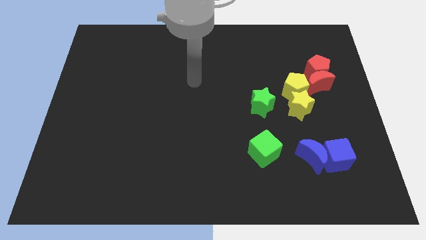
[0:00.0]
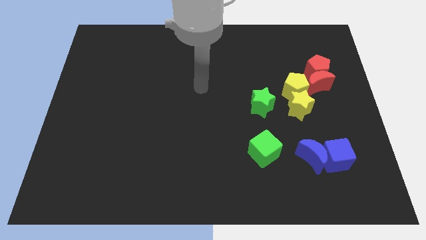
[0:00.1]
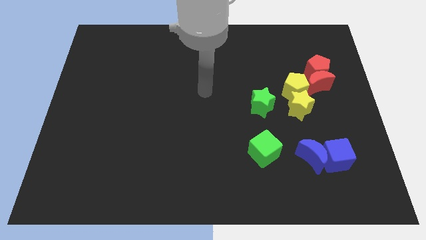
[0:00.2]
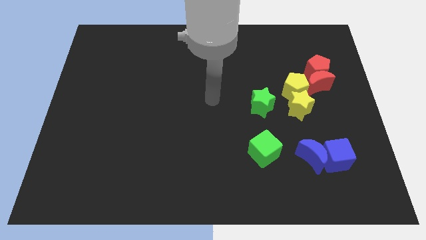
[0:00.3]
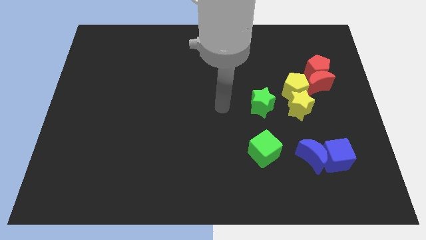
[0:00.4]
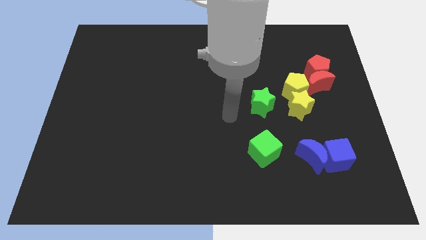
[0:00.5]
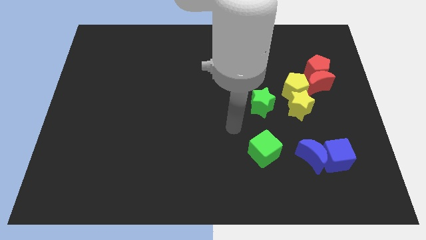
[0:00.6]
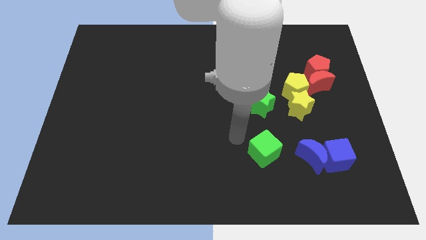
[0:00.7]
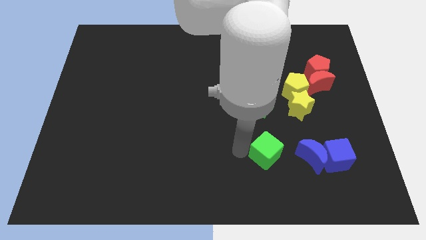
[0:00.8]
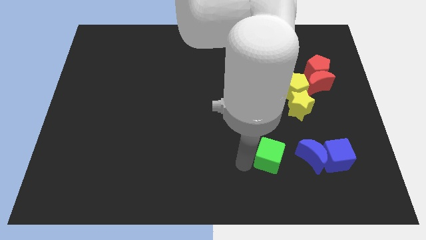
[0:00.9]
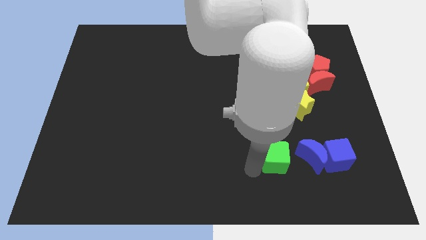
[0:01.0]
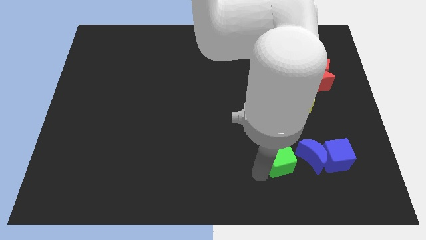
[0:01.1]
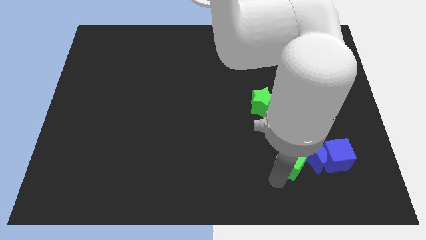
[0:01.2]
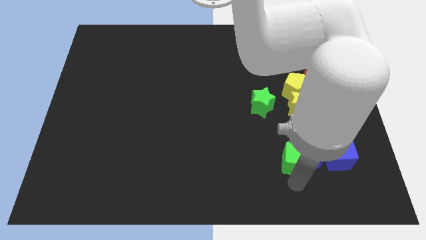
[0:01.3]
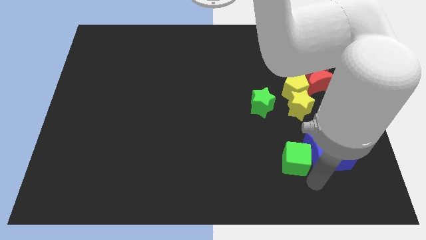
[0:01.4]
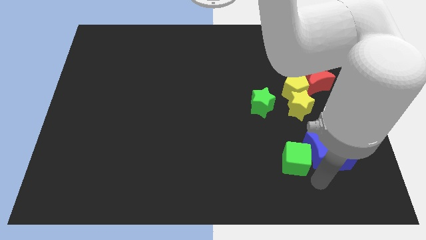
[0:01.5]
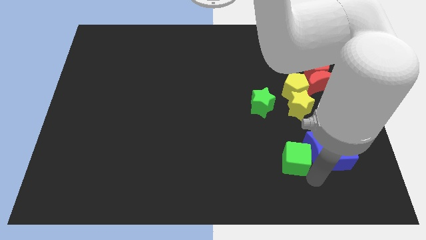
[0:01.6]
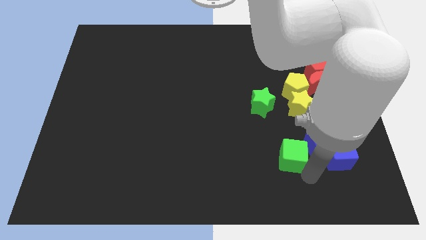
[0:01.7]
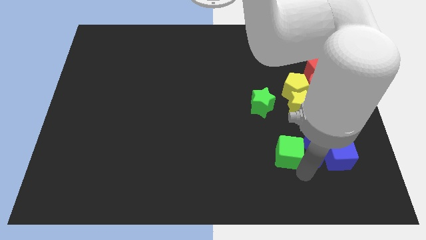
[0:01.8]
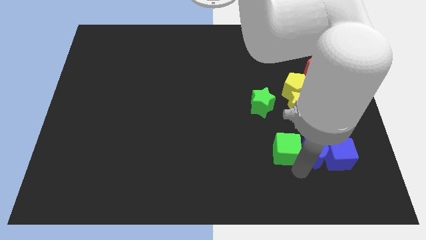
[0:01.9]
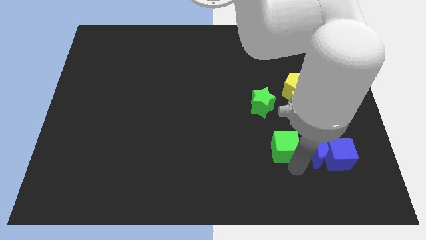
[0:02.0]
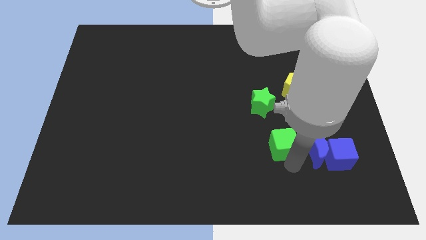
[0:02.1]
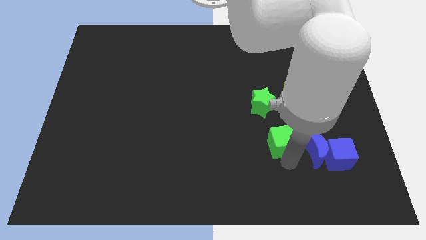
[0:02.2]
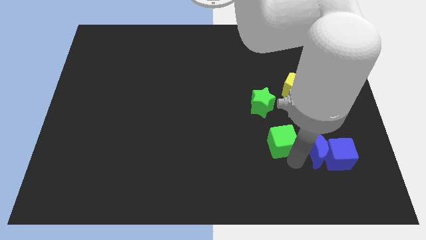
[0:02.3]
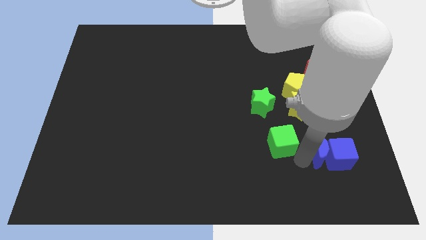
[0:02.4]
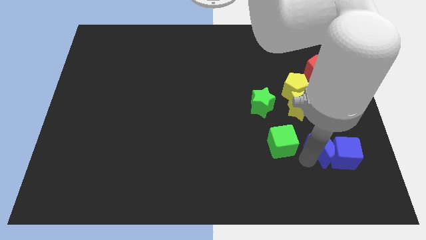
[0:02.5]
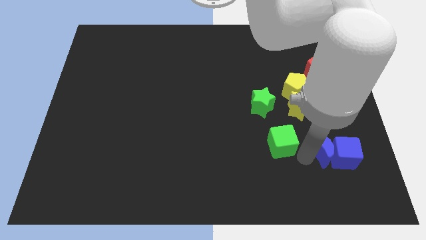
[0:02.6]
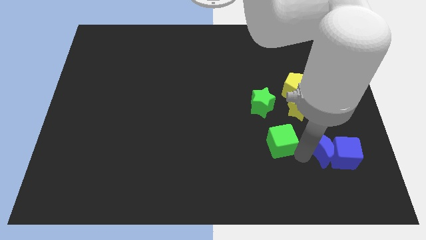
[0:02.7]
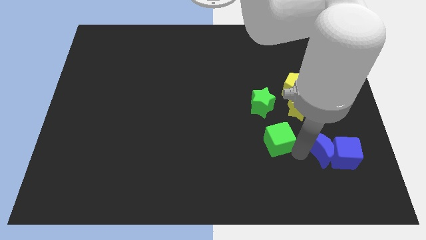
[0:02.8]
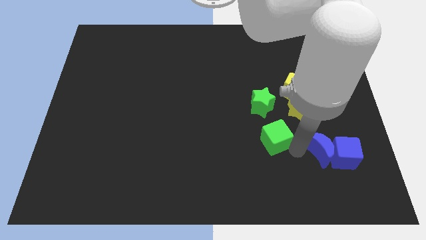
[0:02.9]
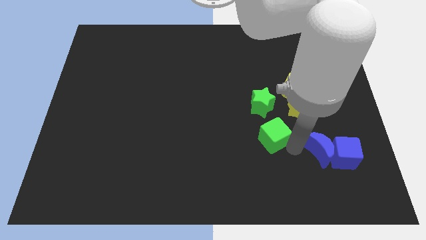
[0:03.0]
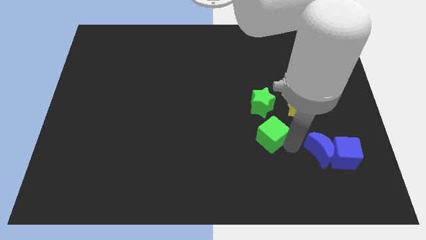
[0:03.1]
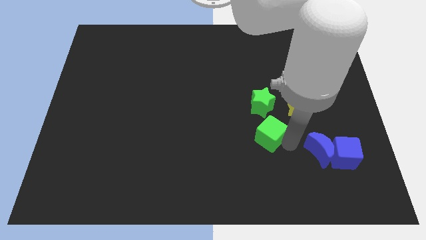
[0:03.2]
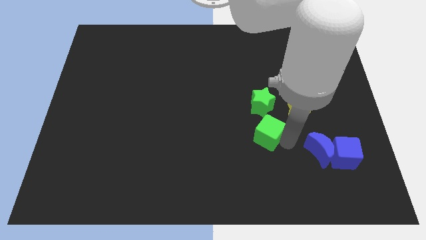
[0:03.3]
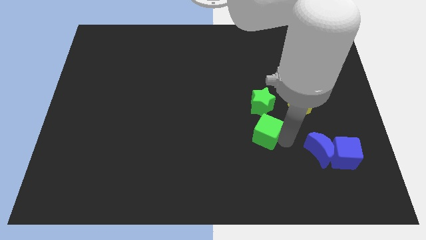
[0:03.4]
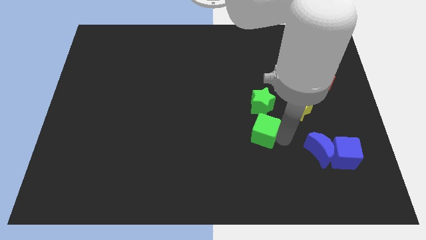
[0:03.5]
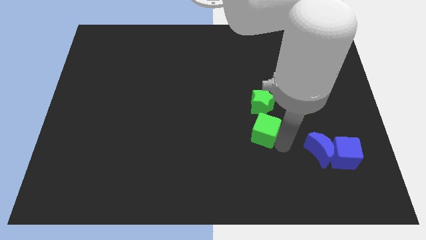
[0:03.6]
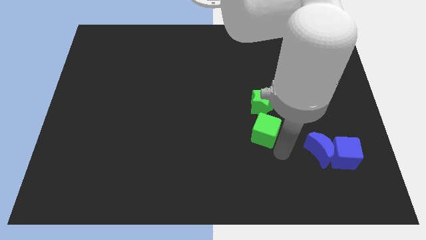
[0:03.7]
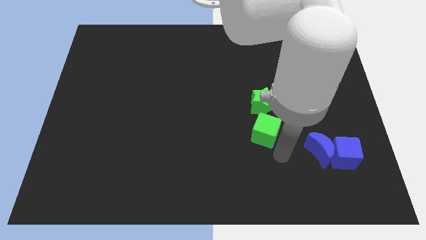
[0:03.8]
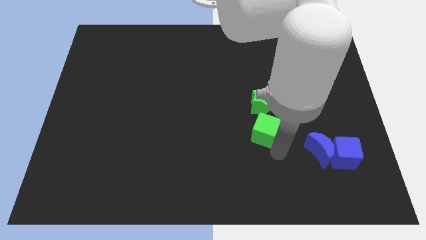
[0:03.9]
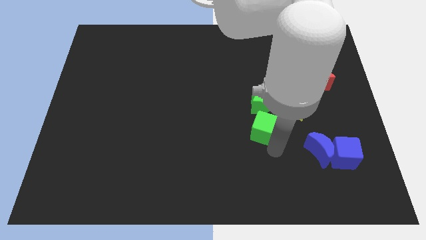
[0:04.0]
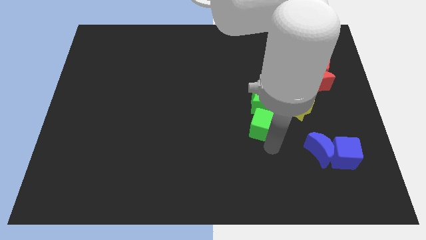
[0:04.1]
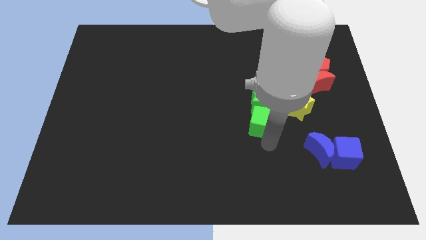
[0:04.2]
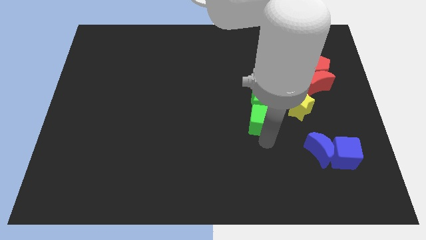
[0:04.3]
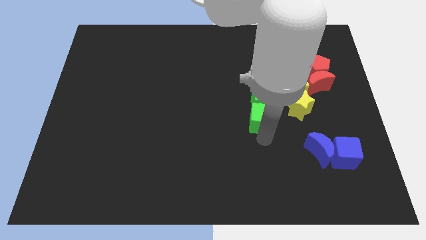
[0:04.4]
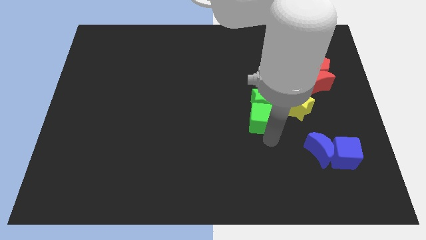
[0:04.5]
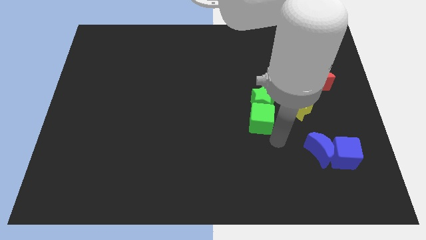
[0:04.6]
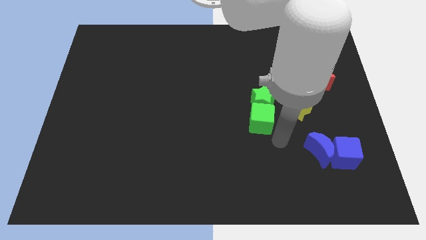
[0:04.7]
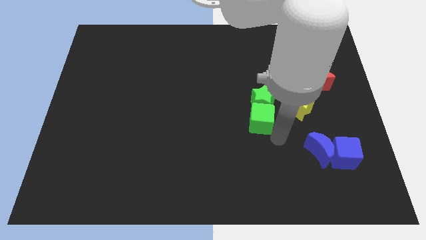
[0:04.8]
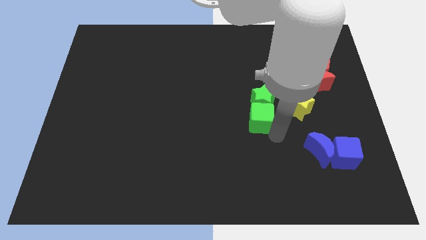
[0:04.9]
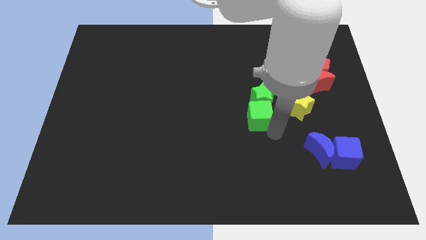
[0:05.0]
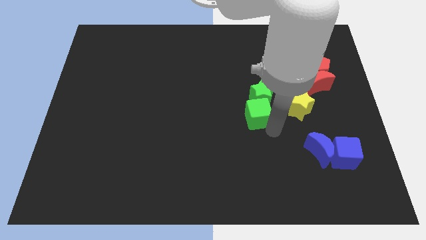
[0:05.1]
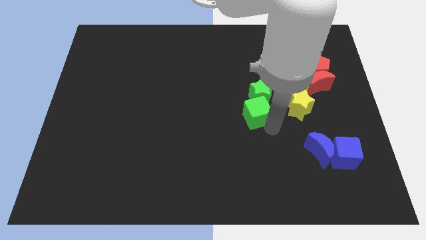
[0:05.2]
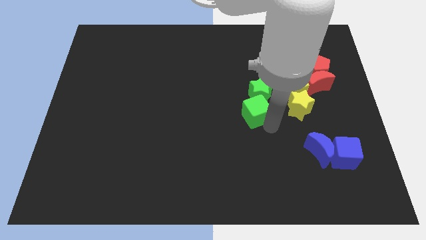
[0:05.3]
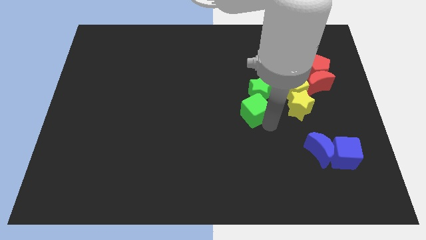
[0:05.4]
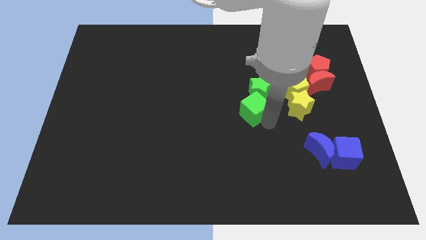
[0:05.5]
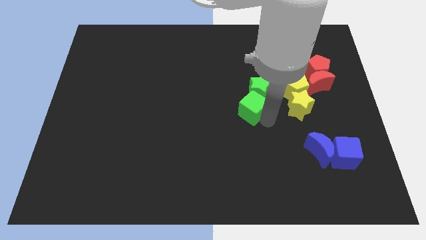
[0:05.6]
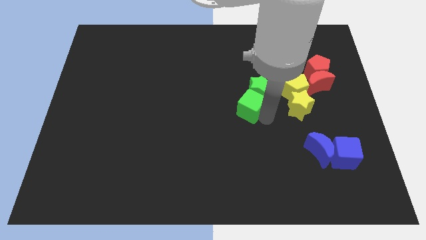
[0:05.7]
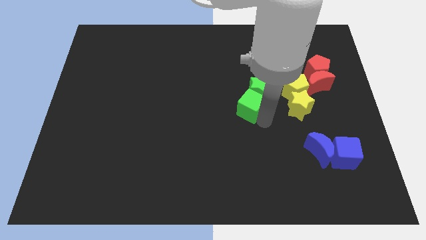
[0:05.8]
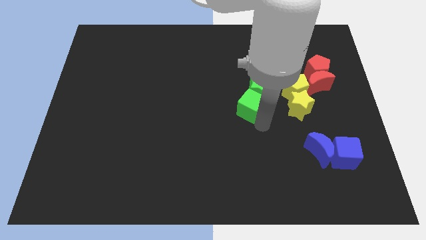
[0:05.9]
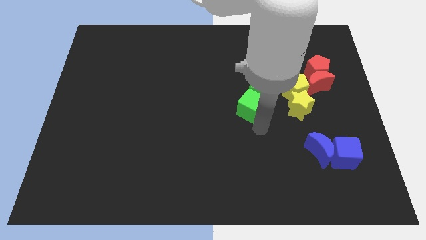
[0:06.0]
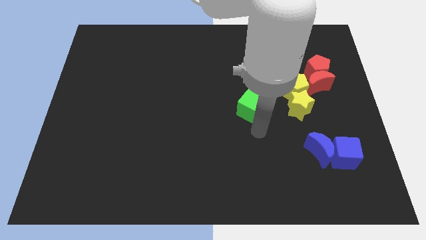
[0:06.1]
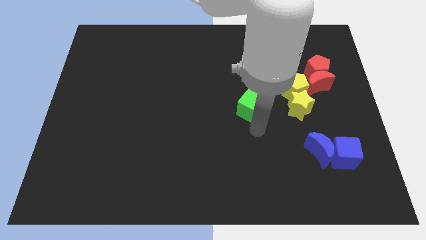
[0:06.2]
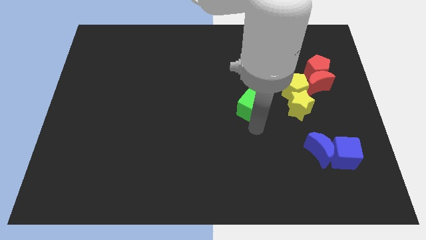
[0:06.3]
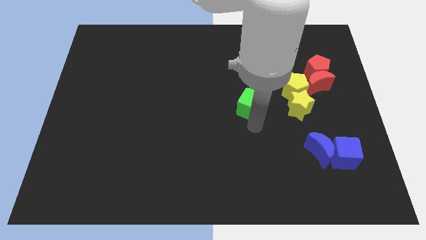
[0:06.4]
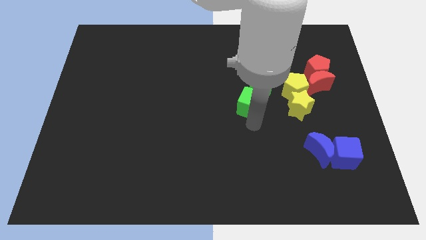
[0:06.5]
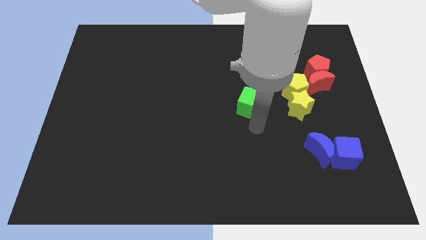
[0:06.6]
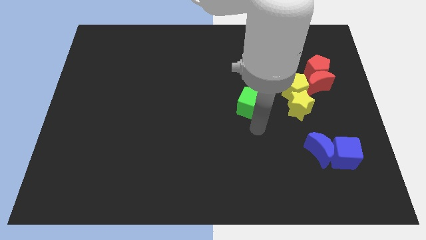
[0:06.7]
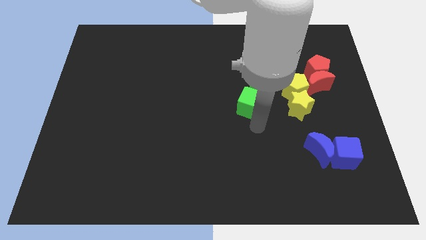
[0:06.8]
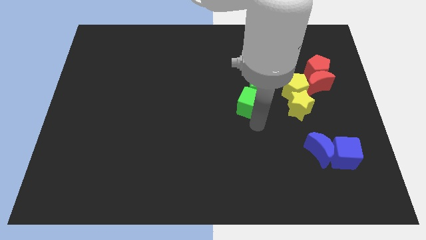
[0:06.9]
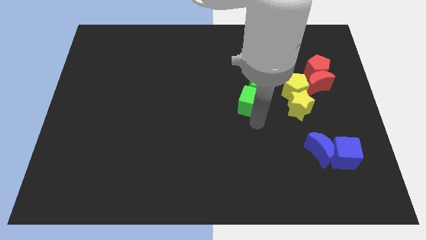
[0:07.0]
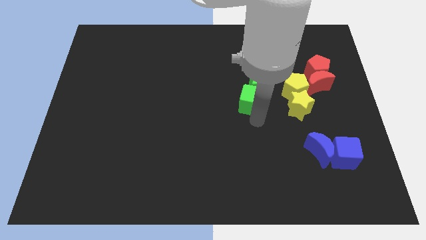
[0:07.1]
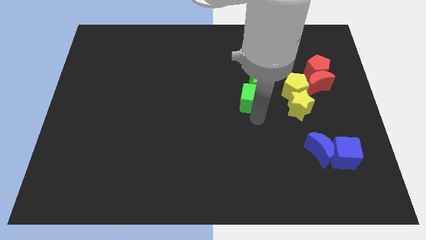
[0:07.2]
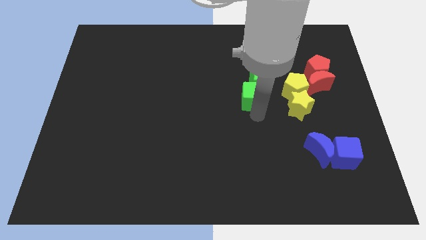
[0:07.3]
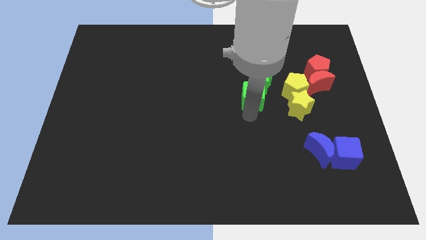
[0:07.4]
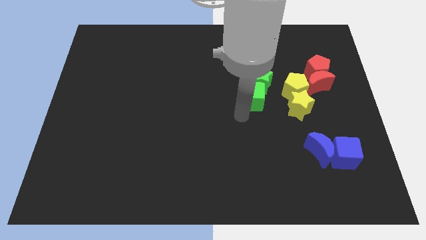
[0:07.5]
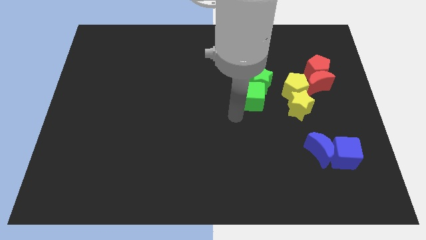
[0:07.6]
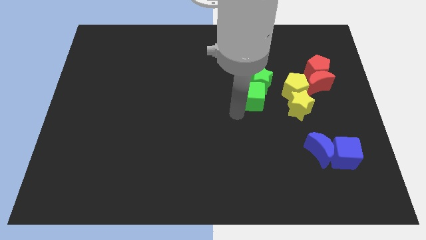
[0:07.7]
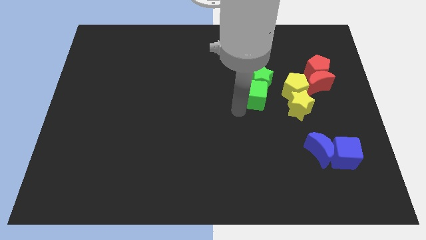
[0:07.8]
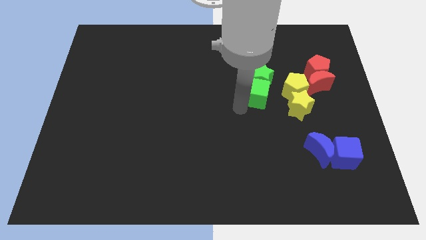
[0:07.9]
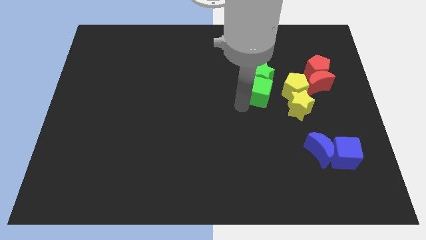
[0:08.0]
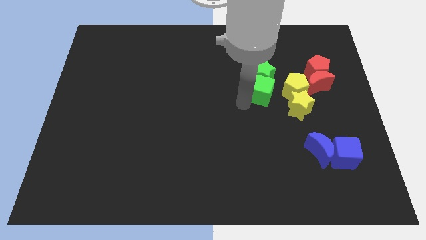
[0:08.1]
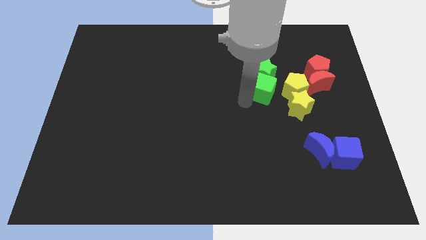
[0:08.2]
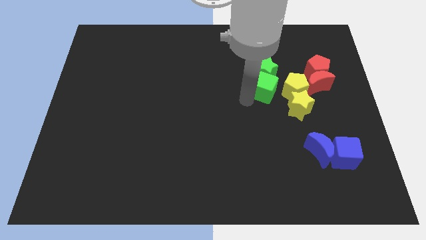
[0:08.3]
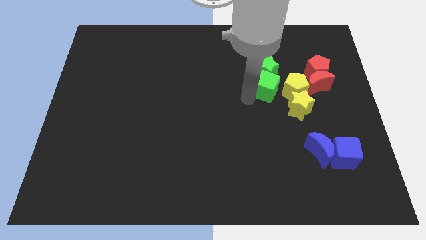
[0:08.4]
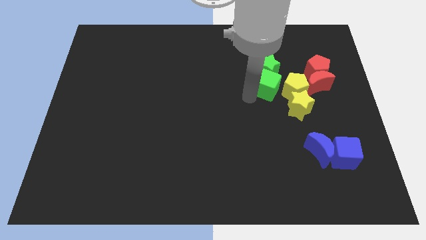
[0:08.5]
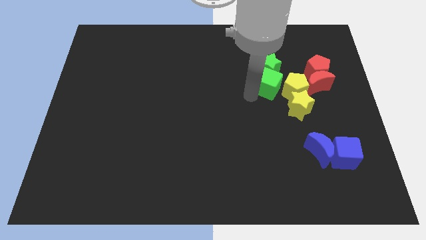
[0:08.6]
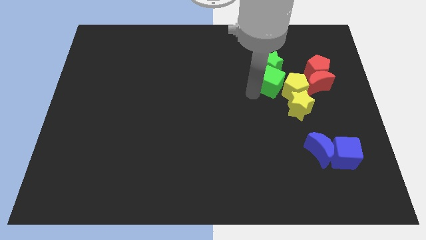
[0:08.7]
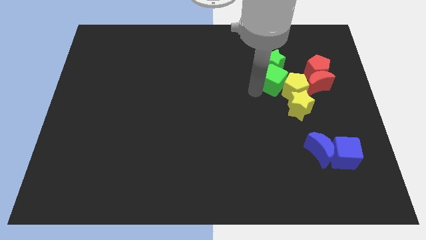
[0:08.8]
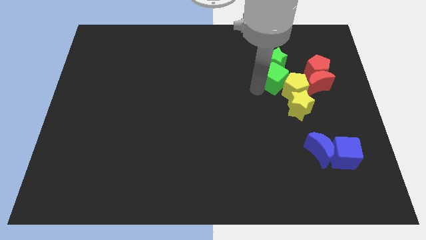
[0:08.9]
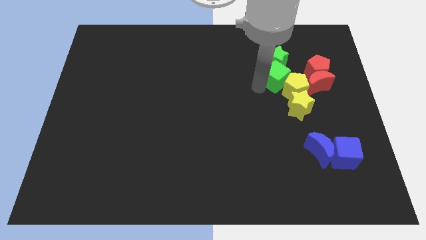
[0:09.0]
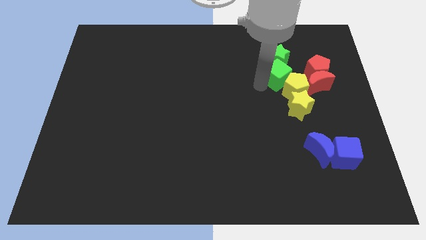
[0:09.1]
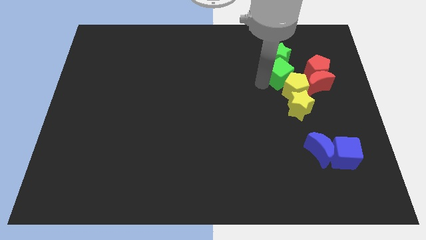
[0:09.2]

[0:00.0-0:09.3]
move the green cube to the top left of the red moon
